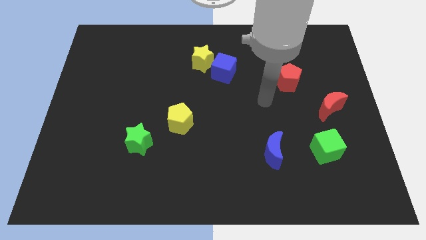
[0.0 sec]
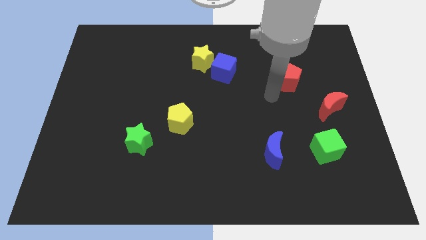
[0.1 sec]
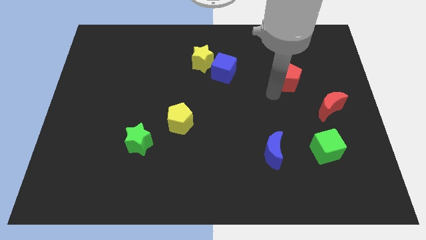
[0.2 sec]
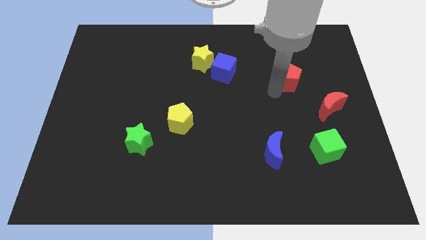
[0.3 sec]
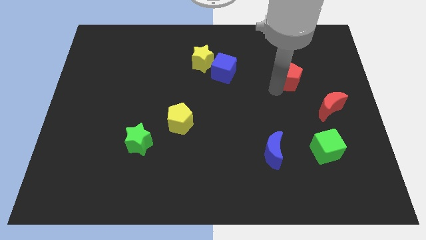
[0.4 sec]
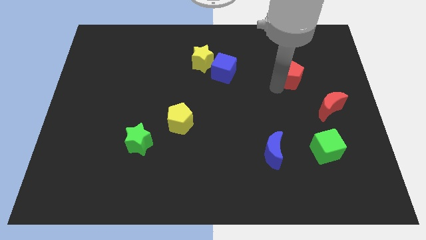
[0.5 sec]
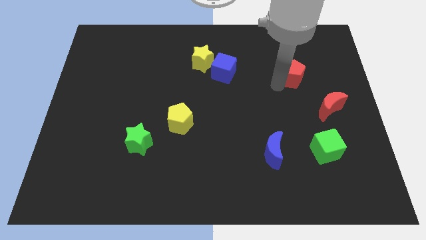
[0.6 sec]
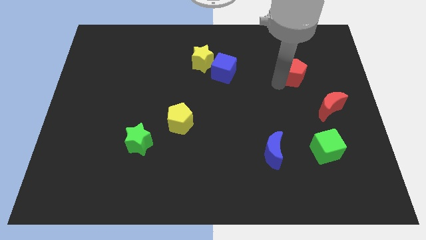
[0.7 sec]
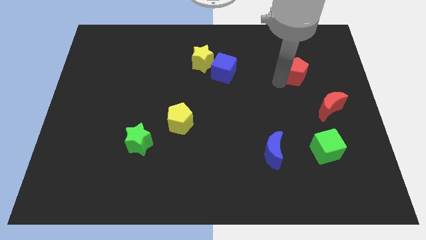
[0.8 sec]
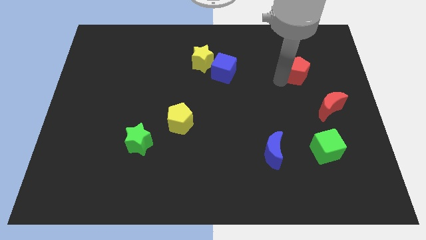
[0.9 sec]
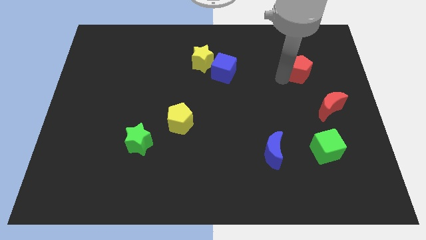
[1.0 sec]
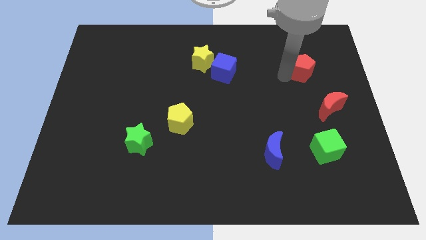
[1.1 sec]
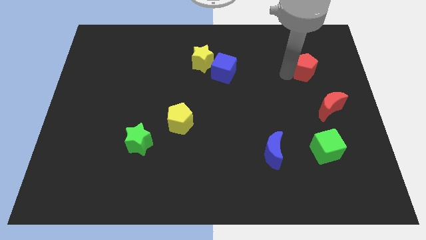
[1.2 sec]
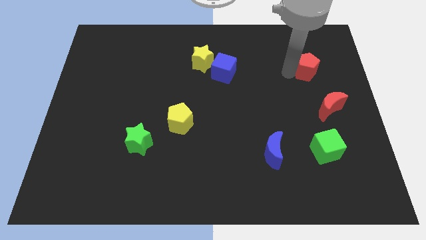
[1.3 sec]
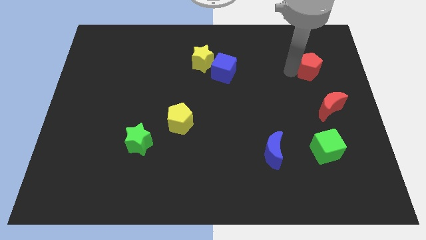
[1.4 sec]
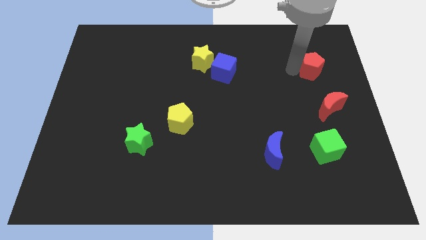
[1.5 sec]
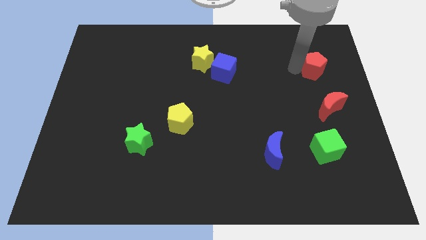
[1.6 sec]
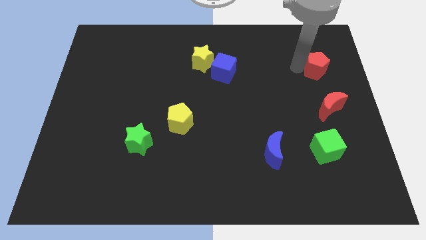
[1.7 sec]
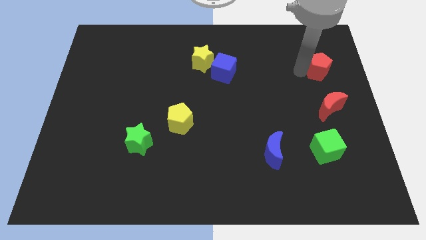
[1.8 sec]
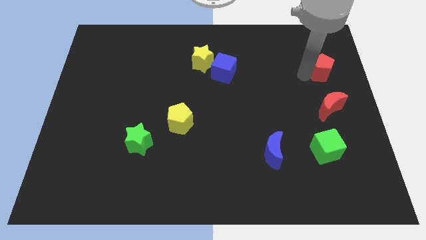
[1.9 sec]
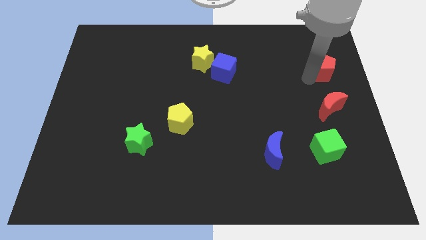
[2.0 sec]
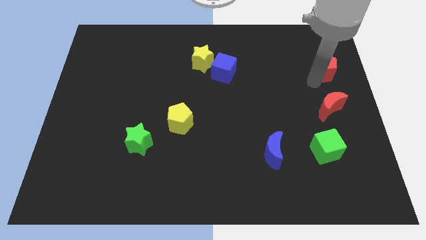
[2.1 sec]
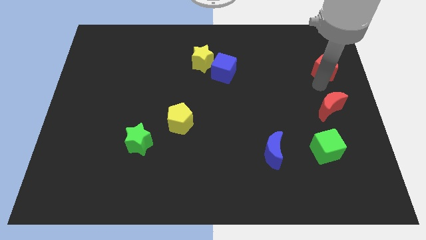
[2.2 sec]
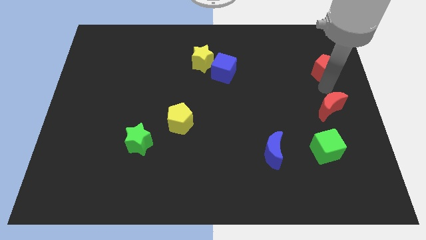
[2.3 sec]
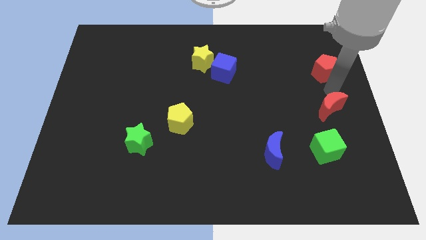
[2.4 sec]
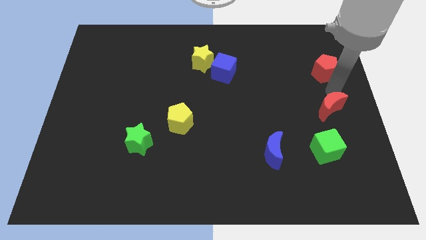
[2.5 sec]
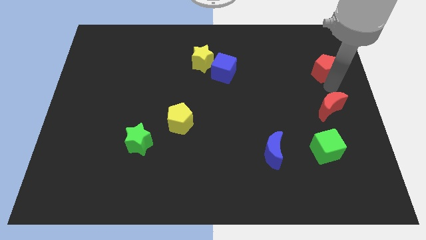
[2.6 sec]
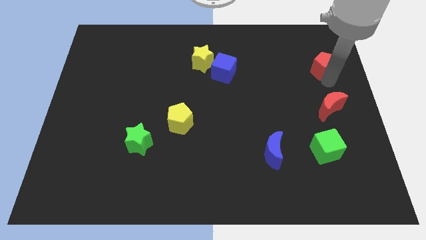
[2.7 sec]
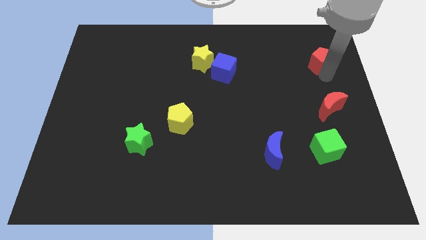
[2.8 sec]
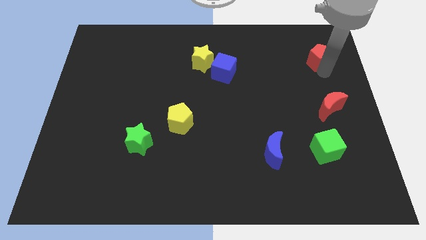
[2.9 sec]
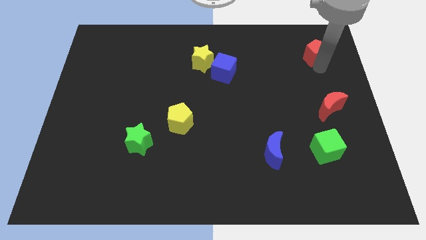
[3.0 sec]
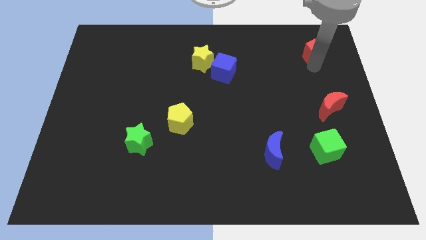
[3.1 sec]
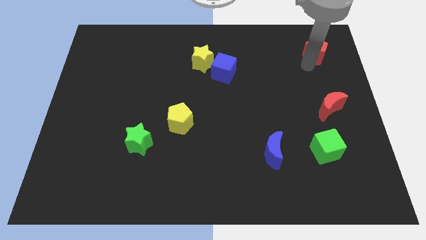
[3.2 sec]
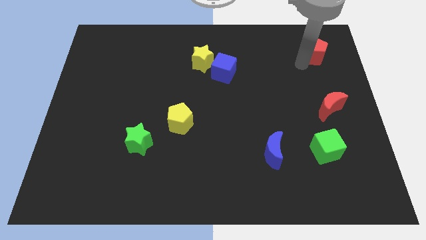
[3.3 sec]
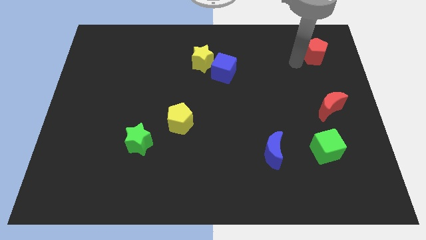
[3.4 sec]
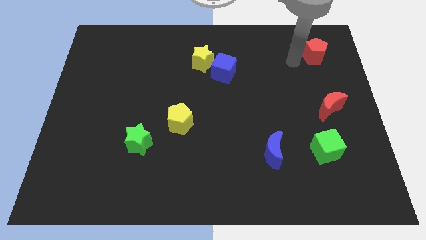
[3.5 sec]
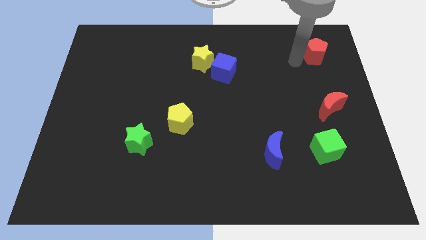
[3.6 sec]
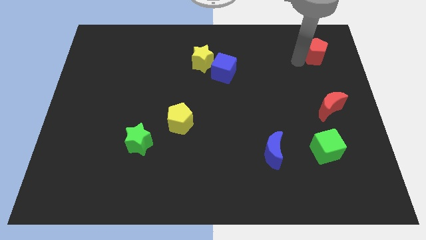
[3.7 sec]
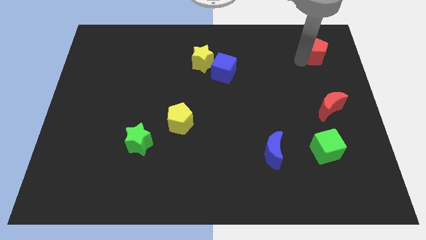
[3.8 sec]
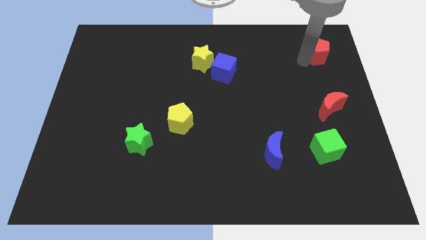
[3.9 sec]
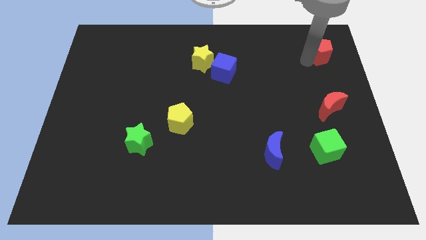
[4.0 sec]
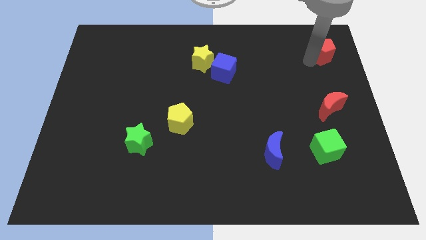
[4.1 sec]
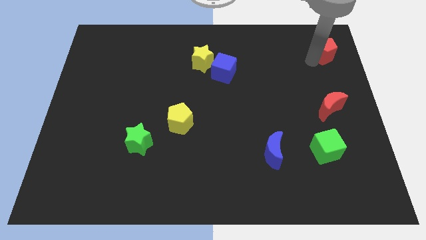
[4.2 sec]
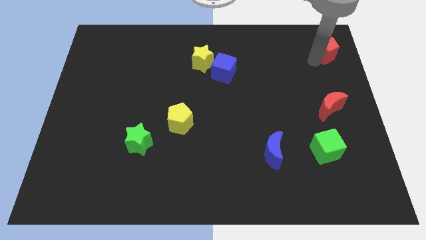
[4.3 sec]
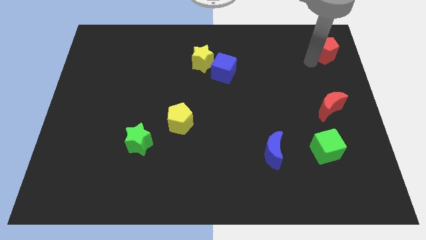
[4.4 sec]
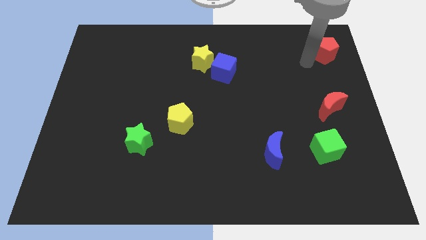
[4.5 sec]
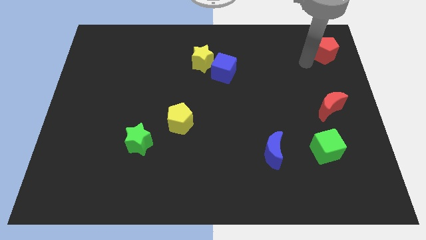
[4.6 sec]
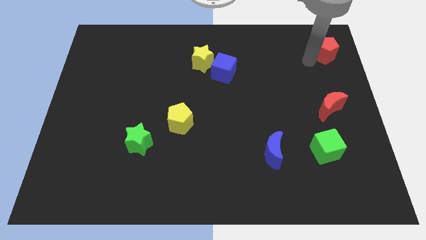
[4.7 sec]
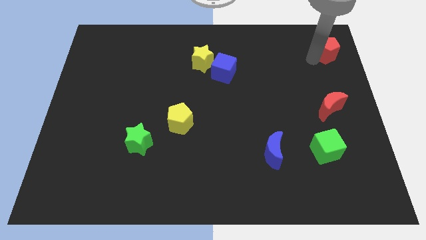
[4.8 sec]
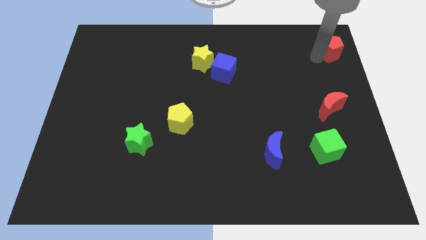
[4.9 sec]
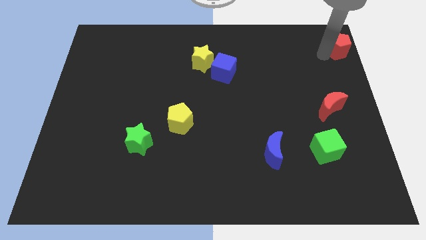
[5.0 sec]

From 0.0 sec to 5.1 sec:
push the red pentagon to the top right of the board

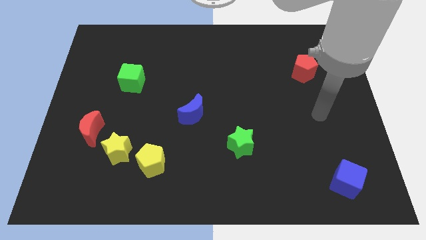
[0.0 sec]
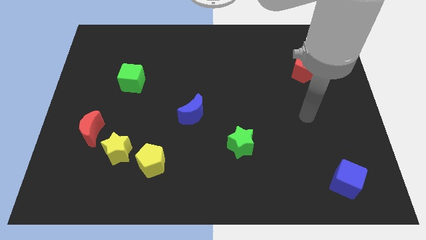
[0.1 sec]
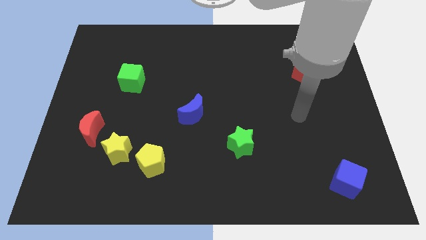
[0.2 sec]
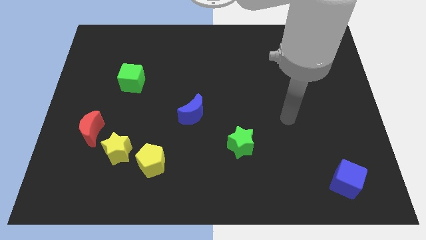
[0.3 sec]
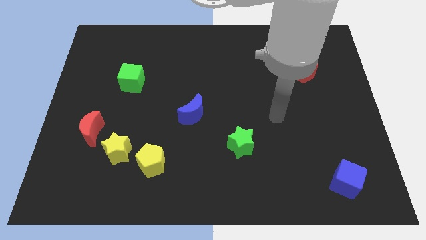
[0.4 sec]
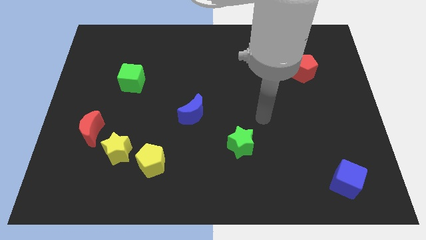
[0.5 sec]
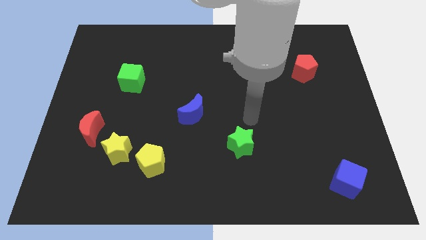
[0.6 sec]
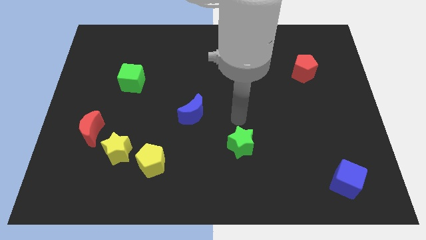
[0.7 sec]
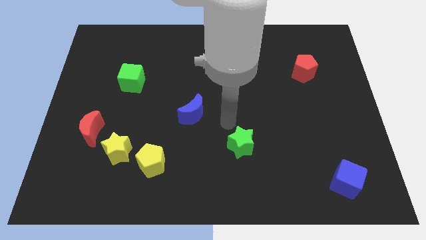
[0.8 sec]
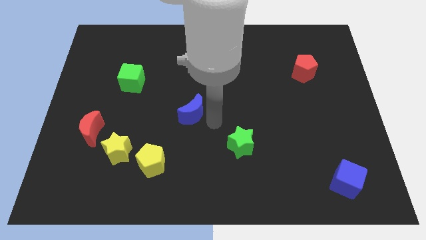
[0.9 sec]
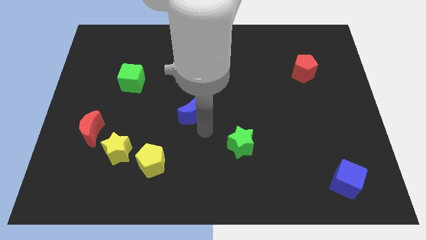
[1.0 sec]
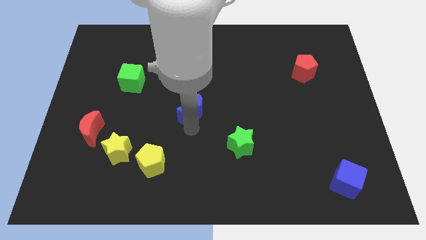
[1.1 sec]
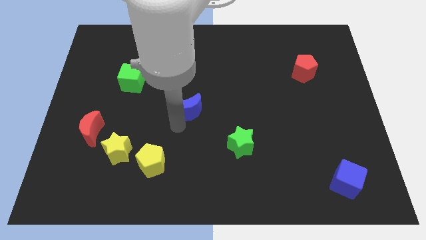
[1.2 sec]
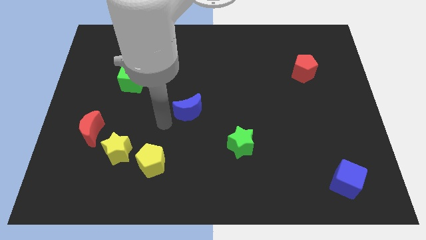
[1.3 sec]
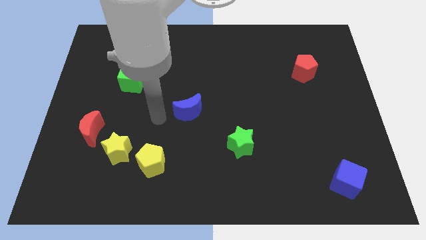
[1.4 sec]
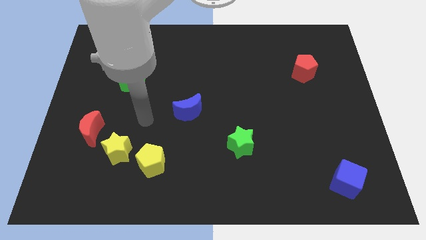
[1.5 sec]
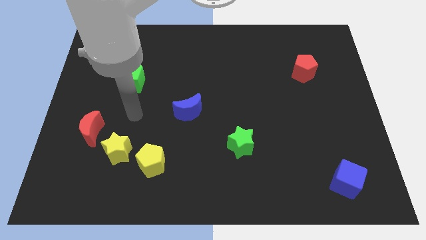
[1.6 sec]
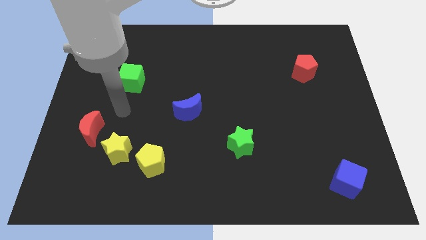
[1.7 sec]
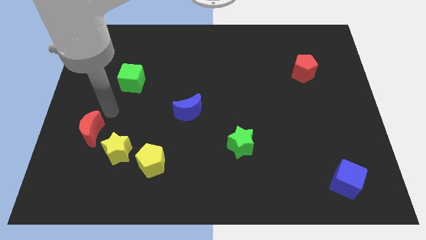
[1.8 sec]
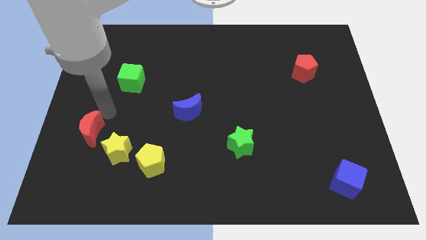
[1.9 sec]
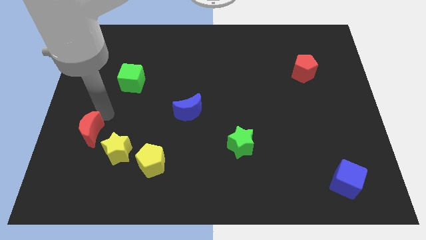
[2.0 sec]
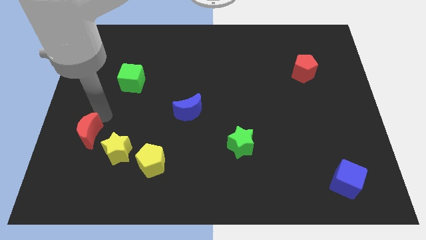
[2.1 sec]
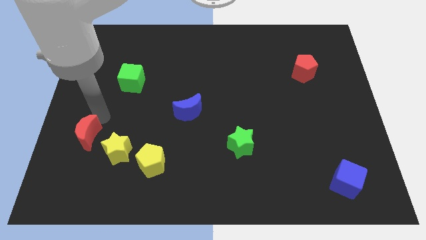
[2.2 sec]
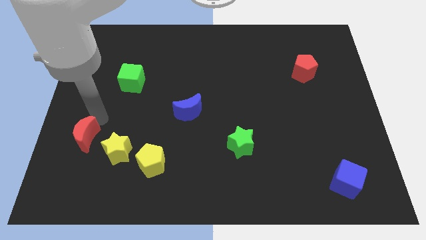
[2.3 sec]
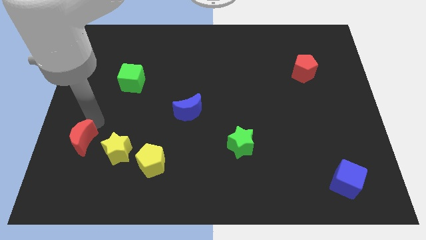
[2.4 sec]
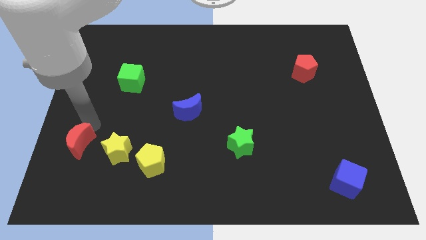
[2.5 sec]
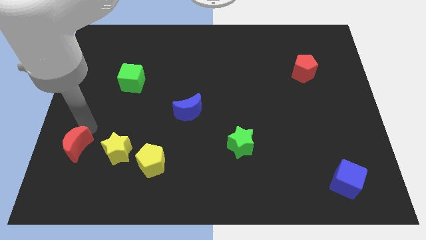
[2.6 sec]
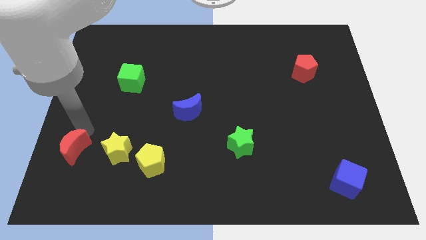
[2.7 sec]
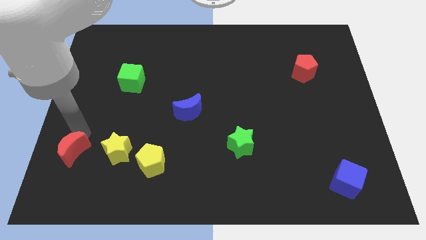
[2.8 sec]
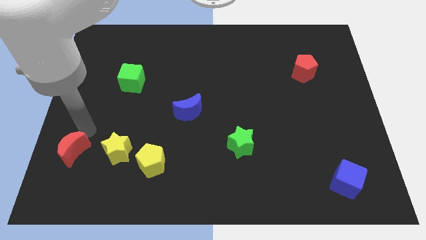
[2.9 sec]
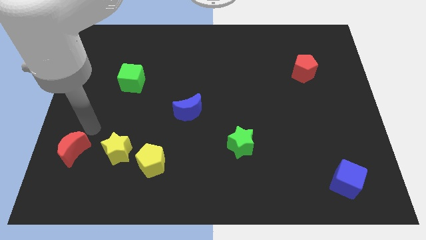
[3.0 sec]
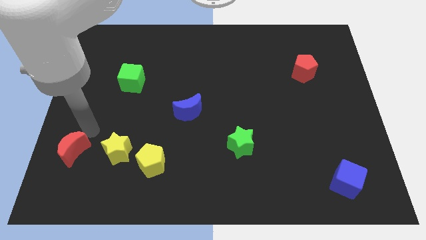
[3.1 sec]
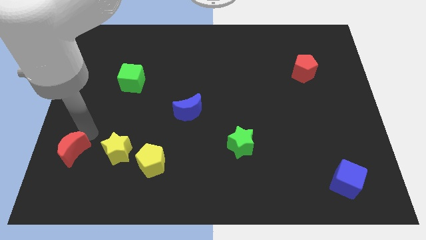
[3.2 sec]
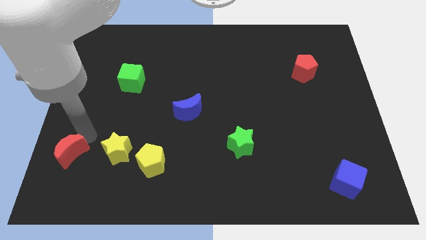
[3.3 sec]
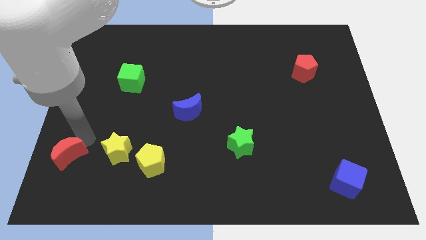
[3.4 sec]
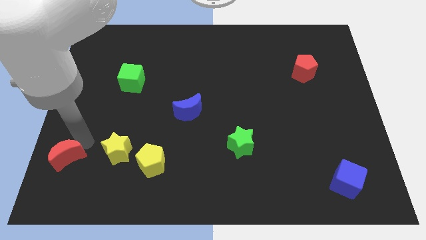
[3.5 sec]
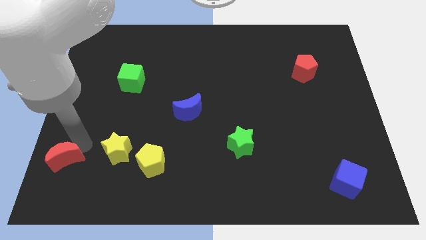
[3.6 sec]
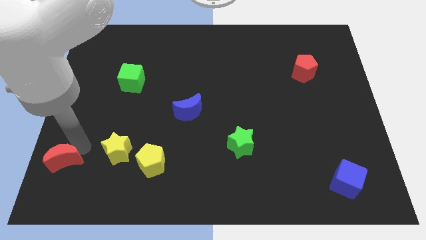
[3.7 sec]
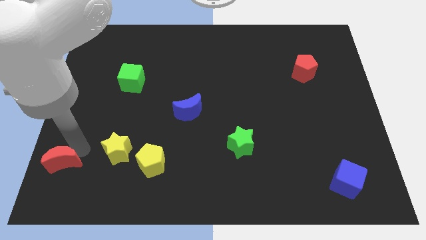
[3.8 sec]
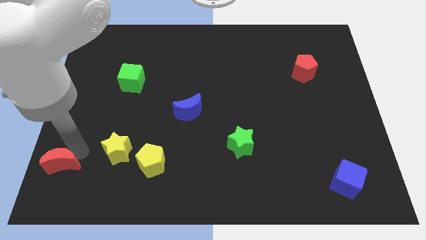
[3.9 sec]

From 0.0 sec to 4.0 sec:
put the red moon to the lower left corner
